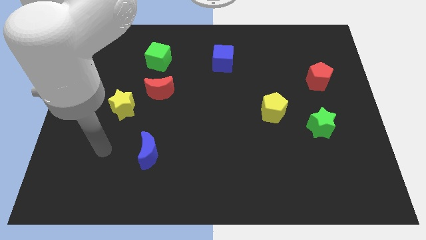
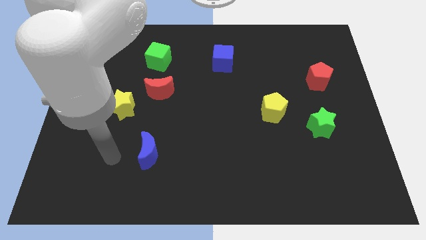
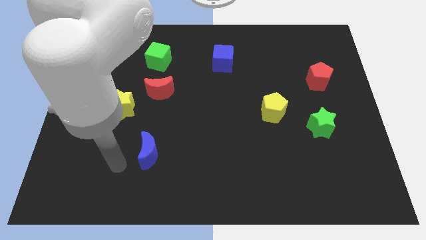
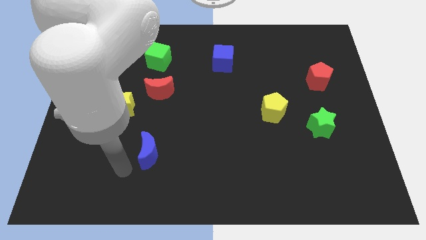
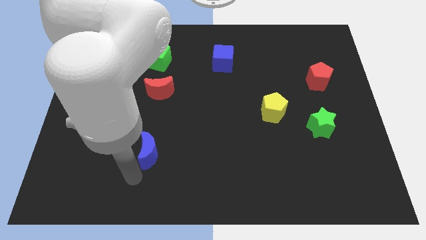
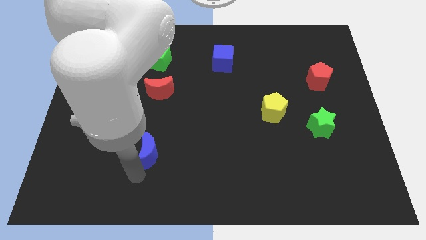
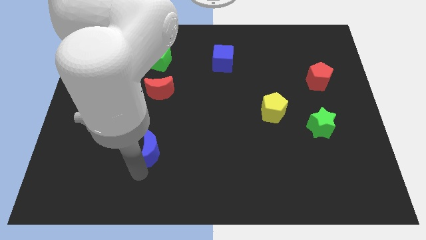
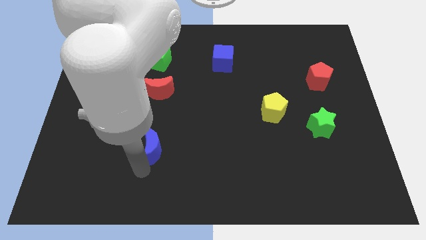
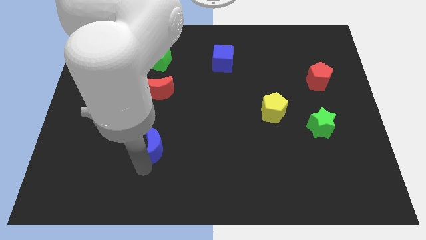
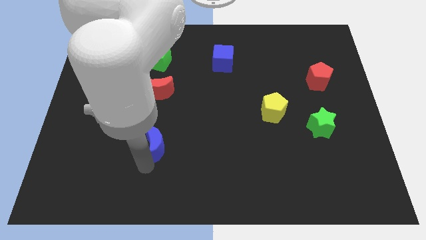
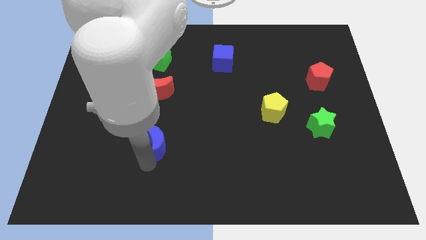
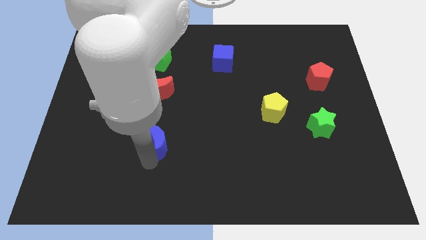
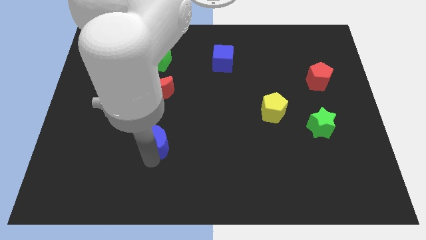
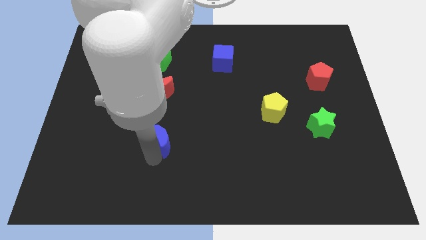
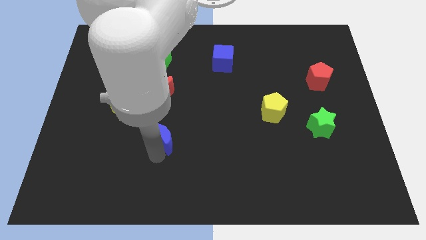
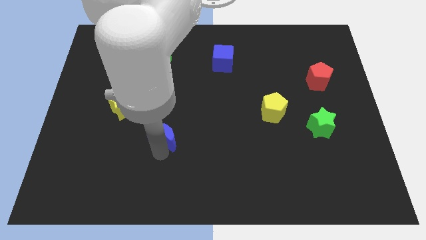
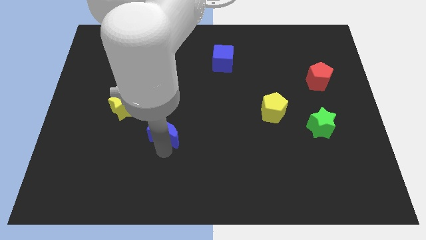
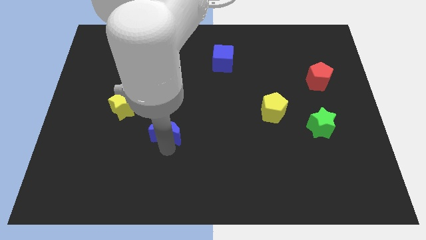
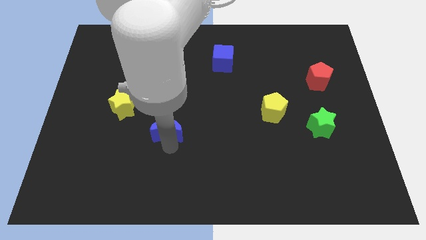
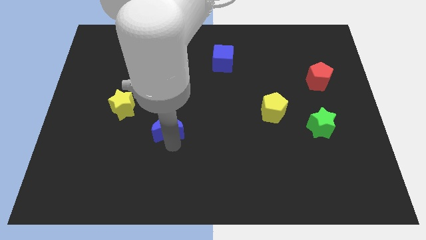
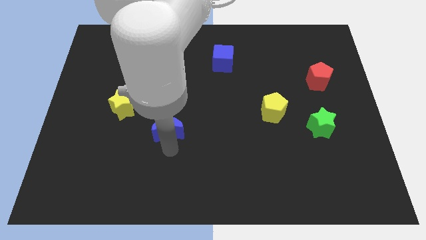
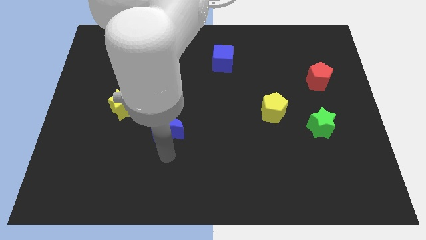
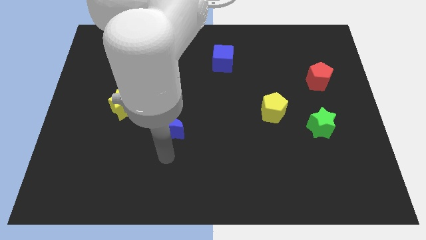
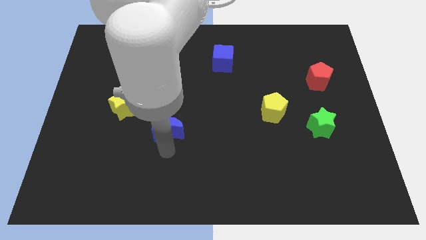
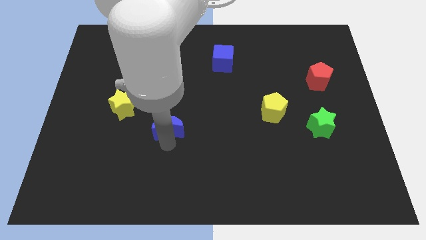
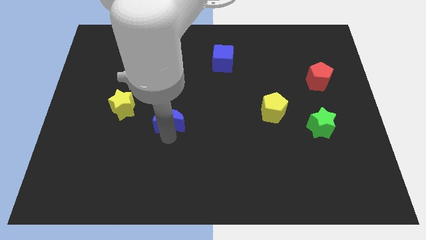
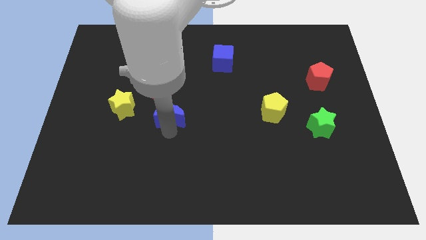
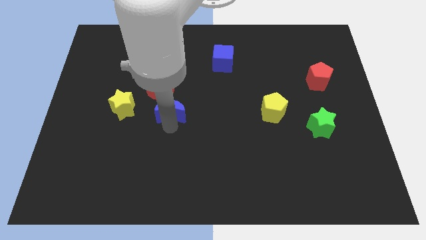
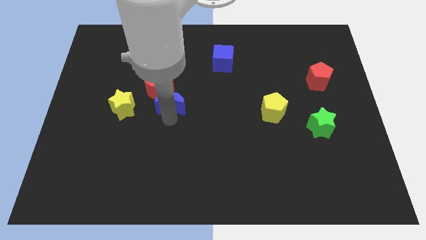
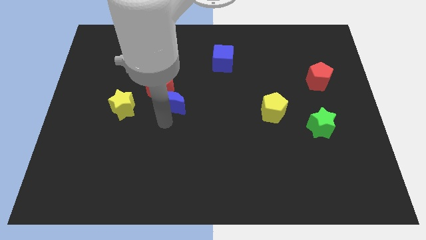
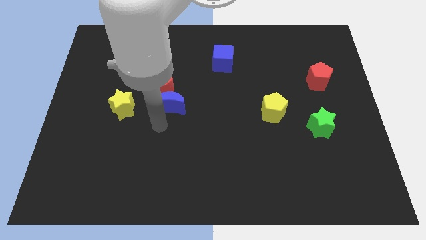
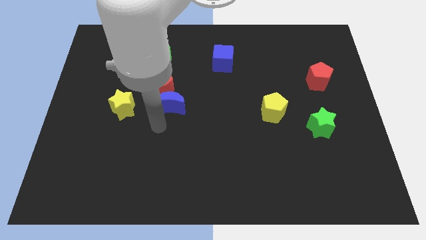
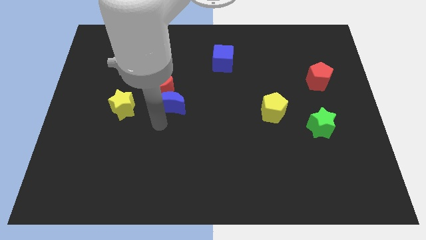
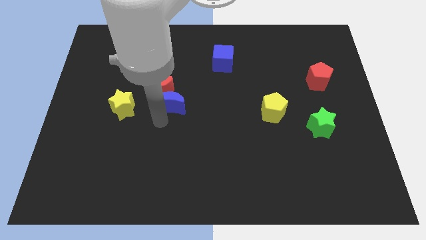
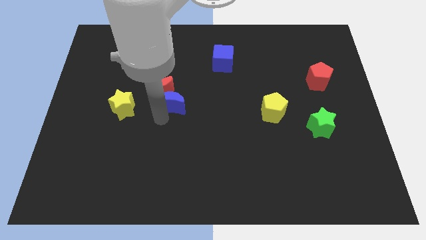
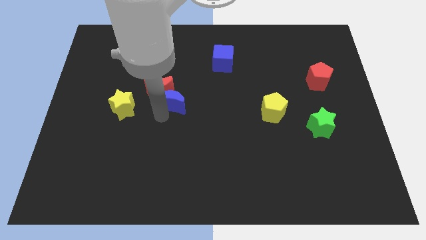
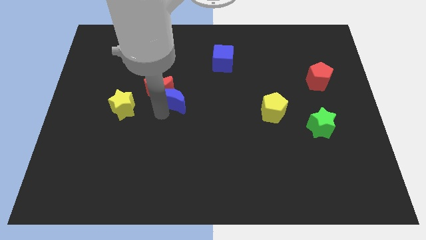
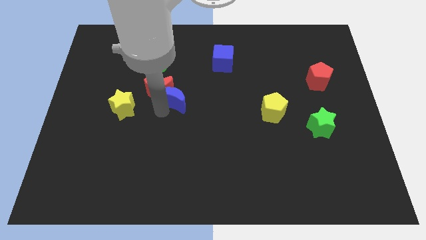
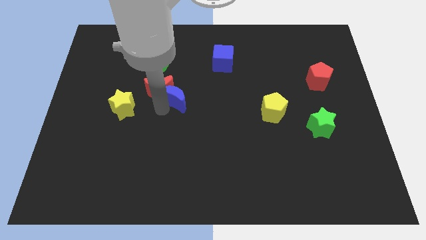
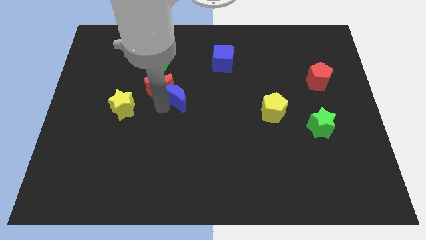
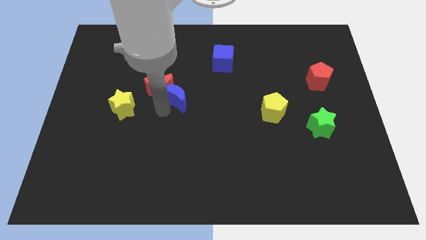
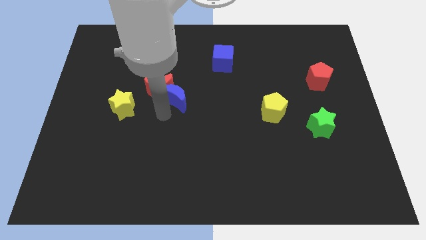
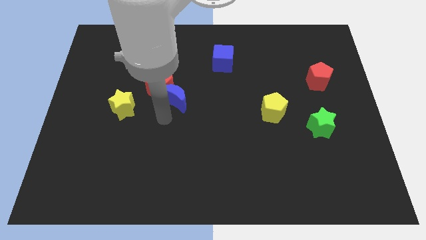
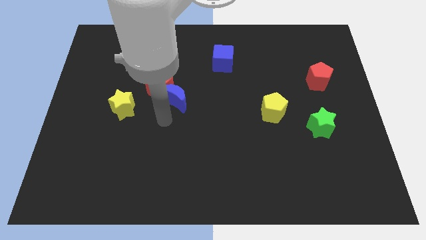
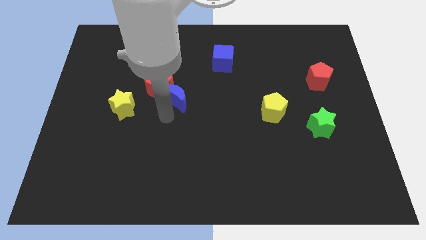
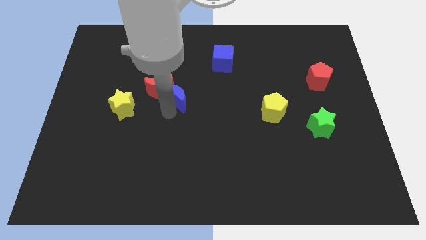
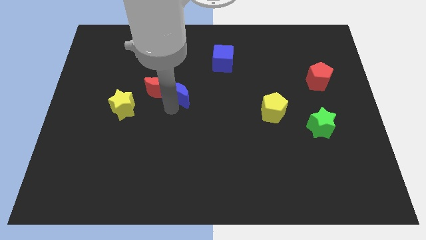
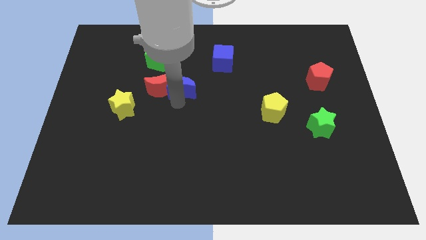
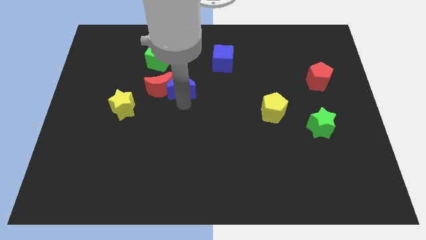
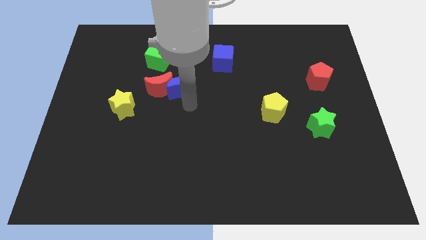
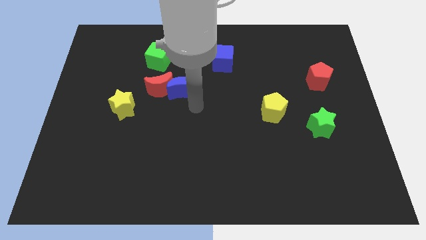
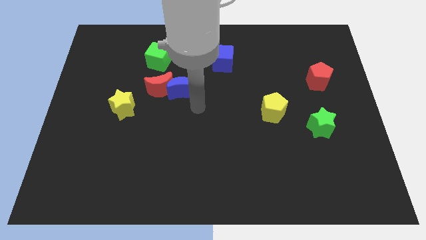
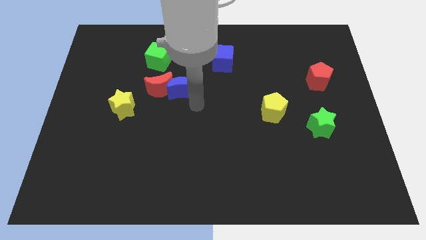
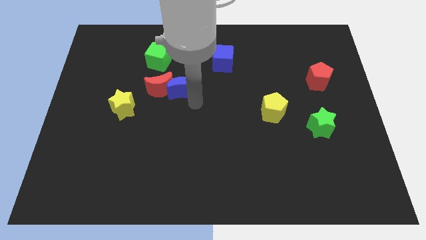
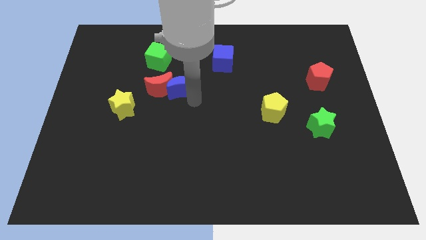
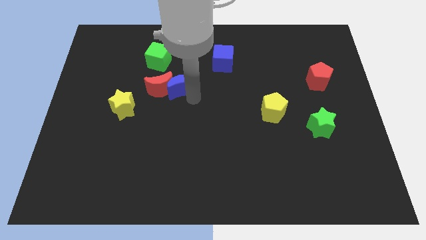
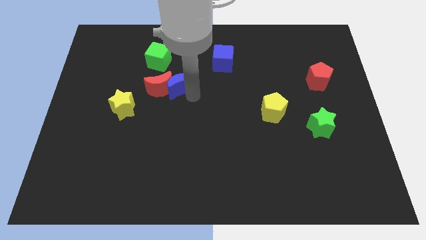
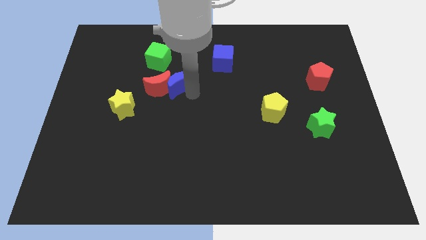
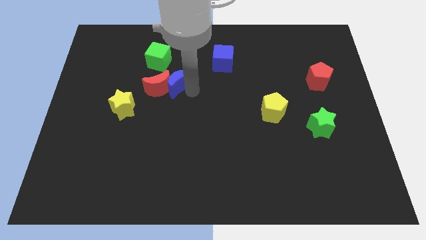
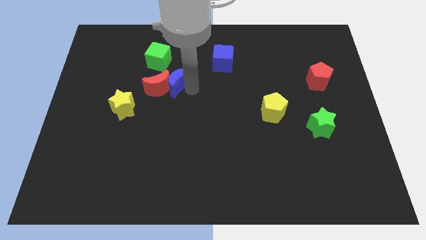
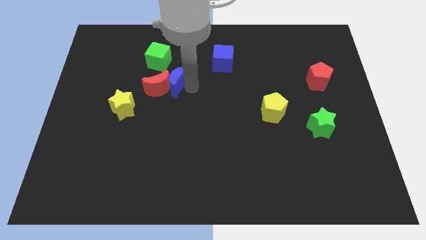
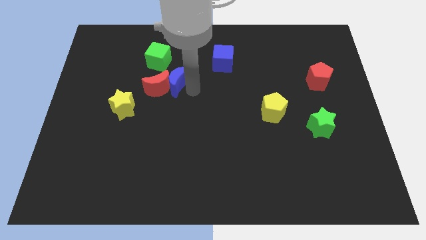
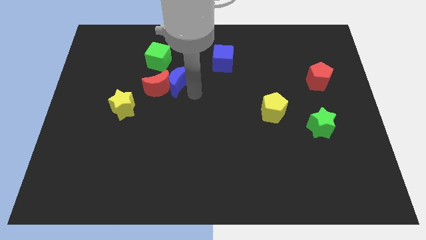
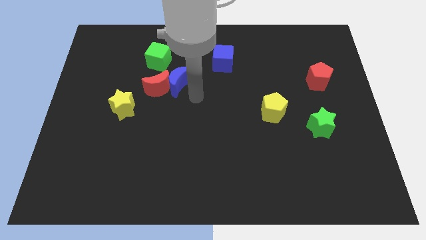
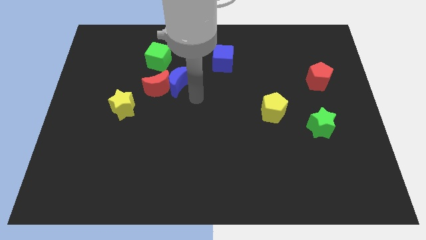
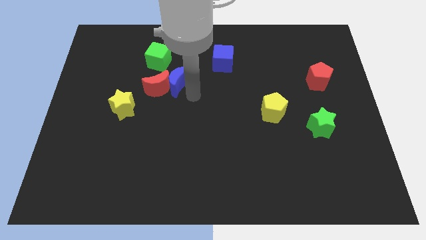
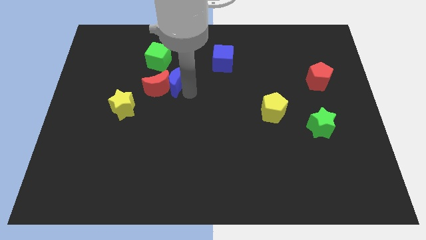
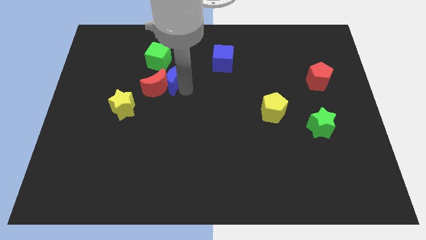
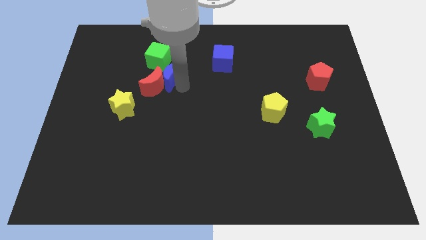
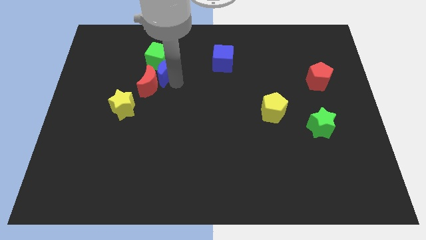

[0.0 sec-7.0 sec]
put the blue moon next to the green cube

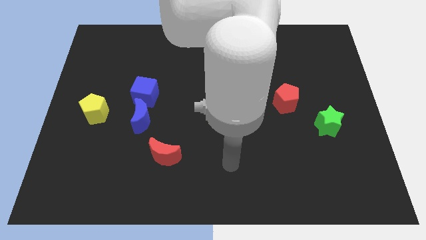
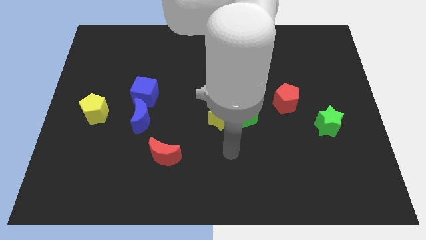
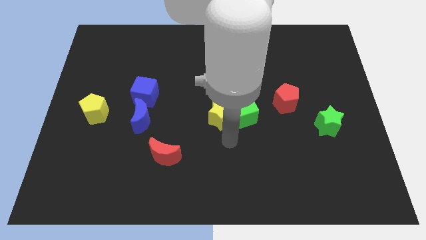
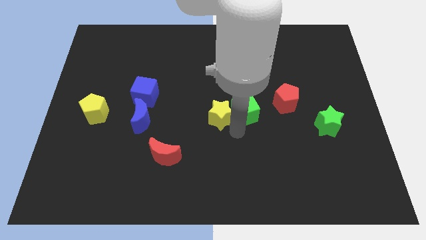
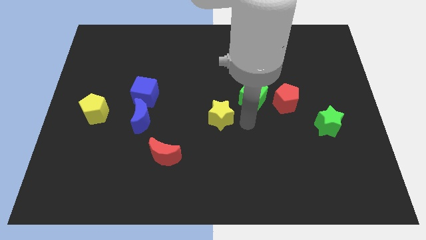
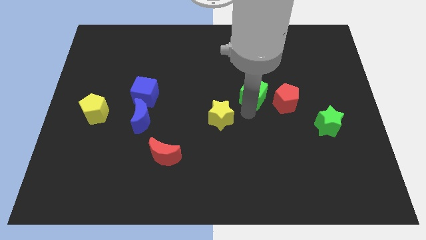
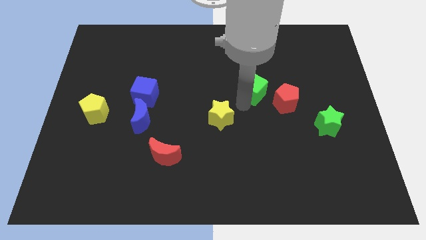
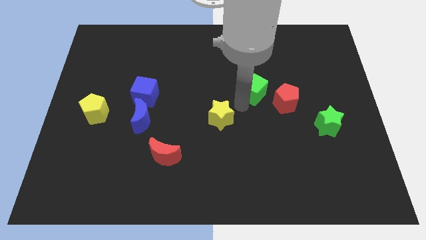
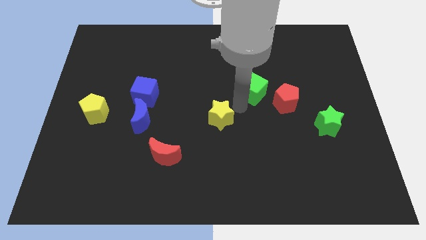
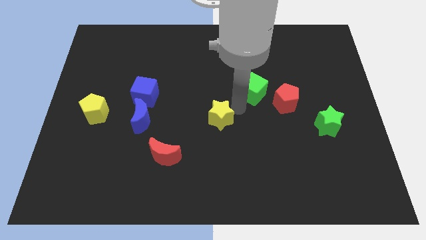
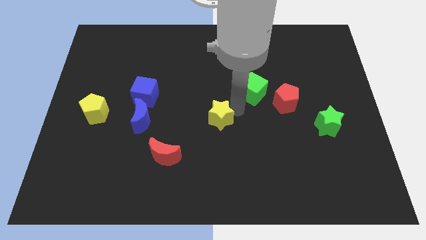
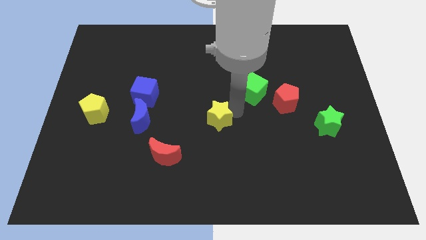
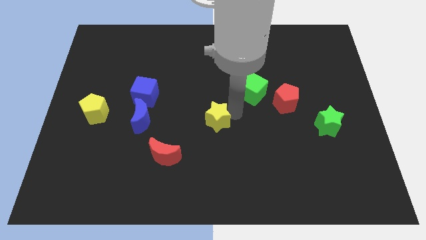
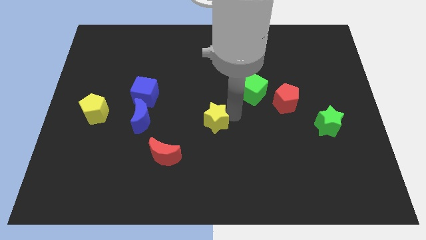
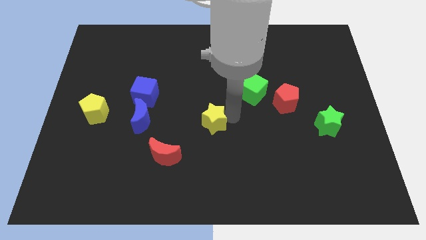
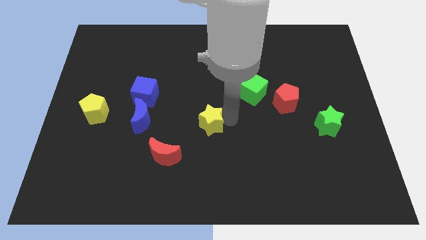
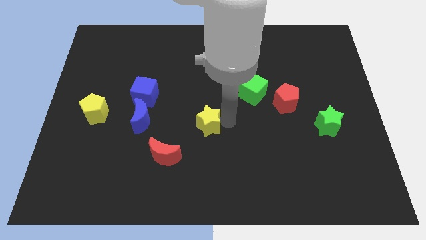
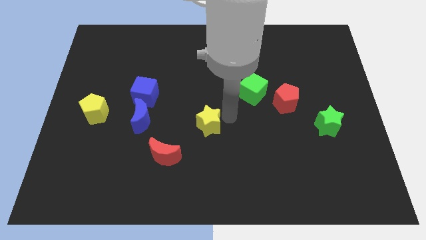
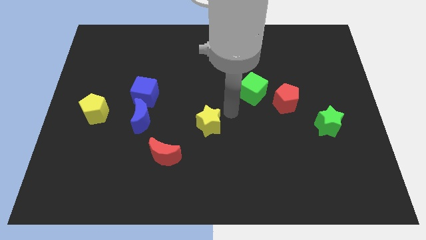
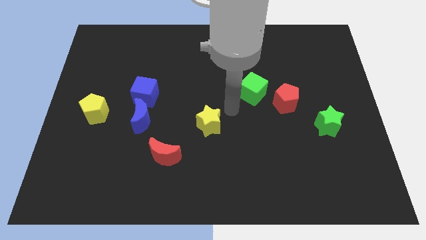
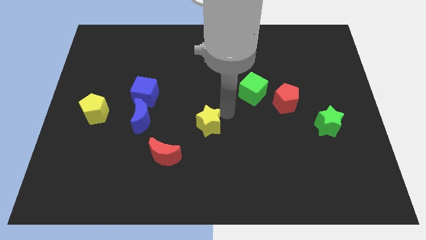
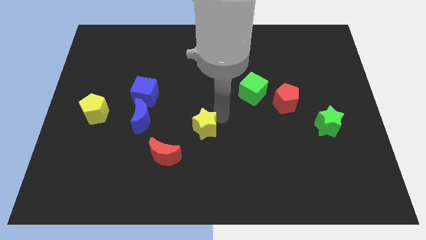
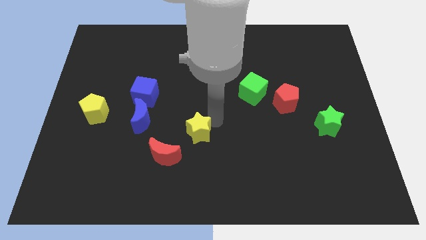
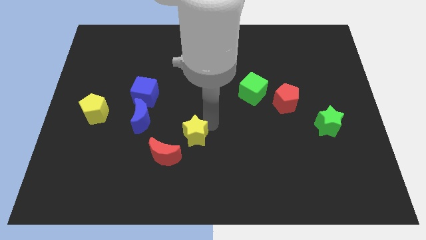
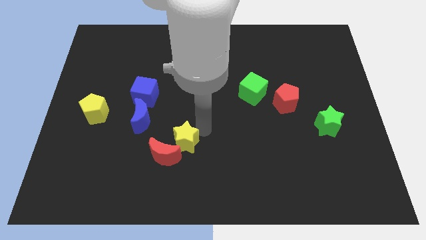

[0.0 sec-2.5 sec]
slide the yellow star next to the red moon
